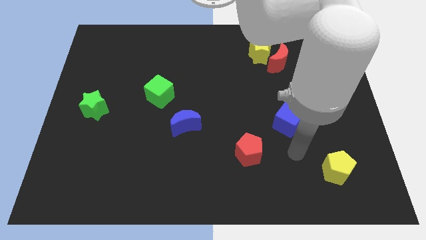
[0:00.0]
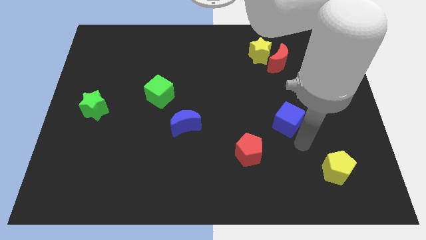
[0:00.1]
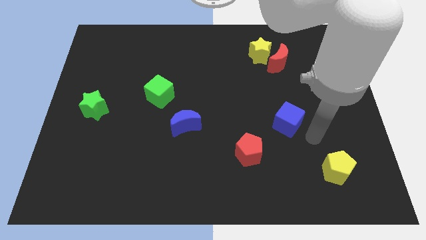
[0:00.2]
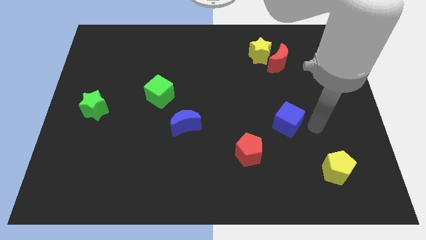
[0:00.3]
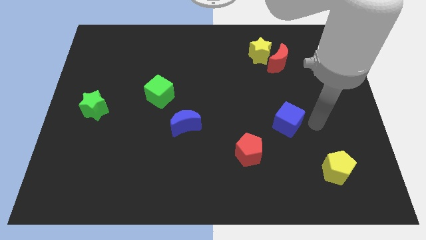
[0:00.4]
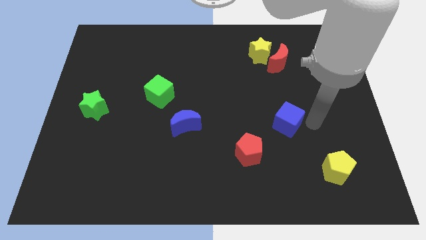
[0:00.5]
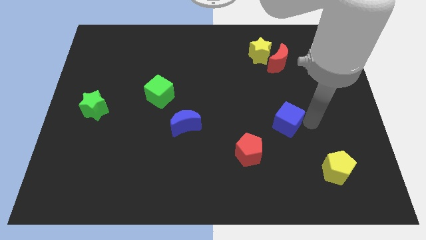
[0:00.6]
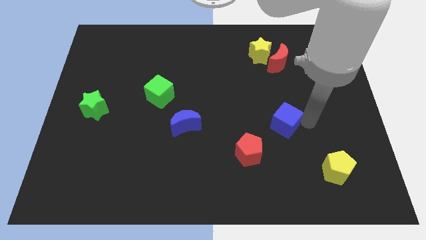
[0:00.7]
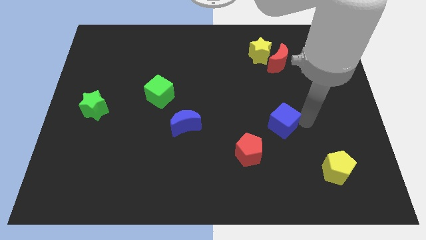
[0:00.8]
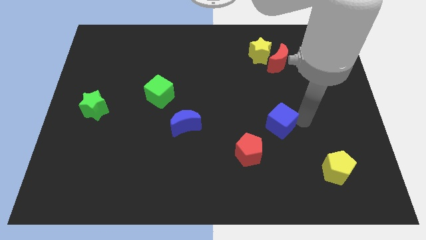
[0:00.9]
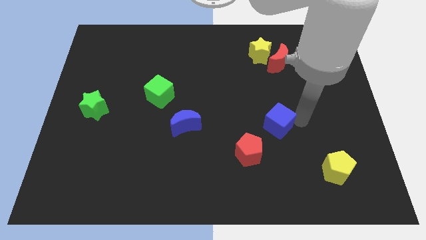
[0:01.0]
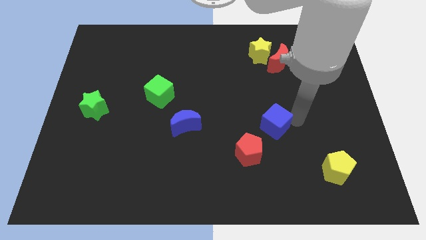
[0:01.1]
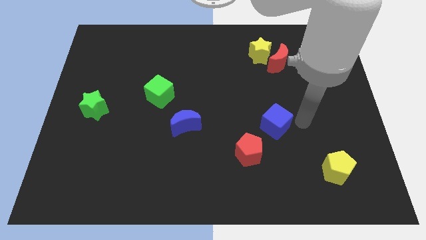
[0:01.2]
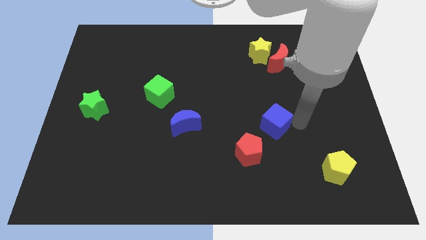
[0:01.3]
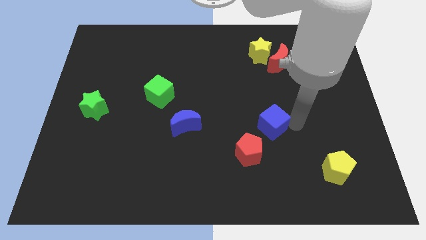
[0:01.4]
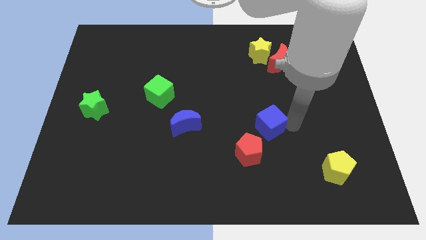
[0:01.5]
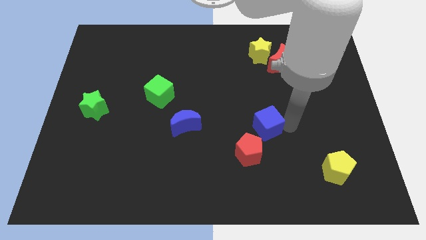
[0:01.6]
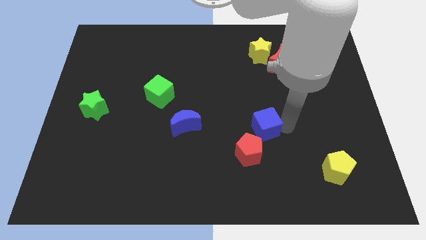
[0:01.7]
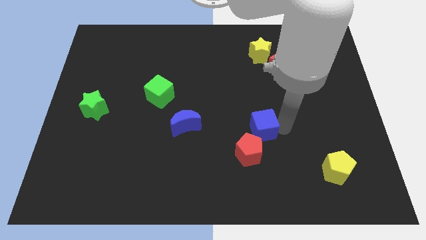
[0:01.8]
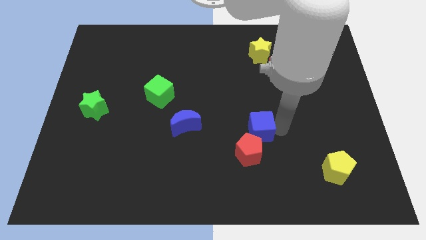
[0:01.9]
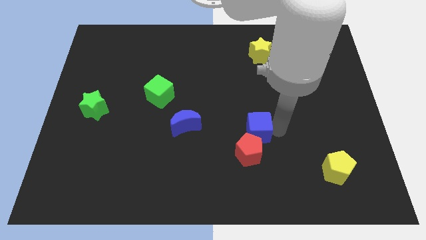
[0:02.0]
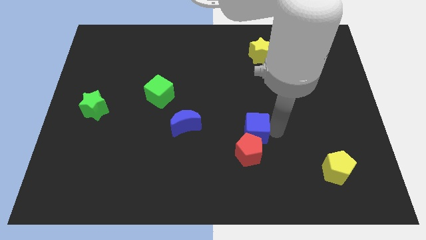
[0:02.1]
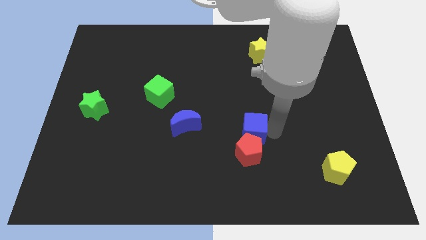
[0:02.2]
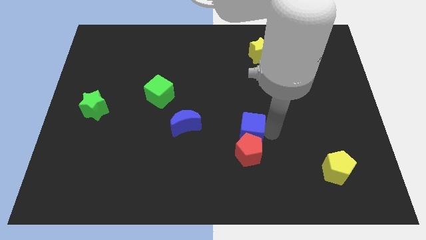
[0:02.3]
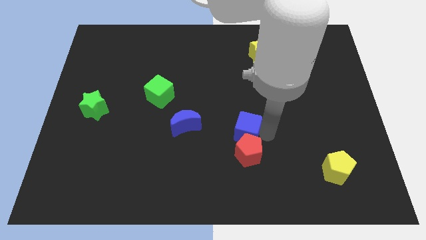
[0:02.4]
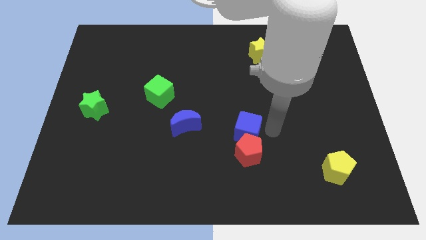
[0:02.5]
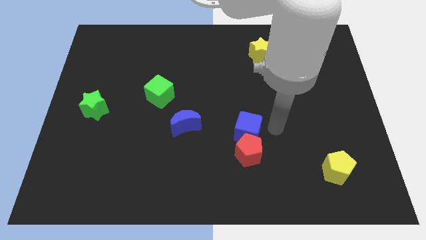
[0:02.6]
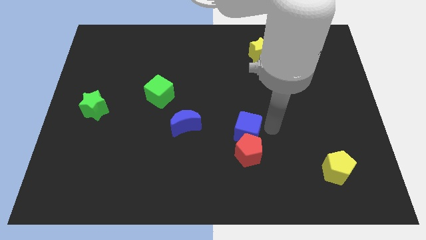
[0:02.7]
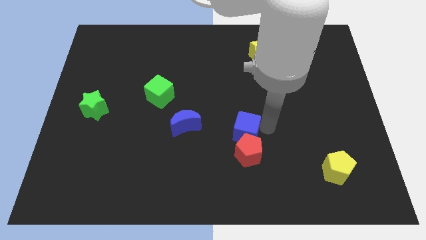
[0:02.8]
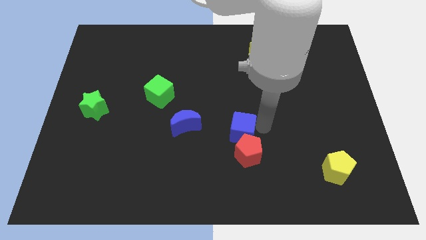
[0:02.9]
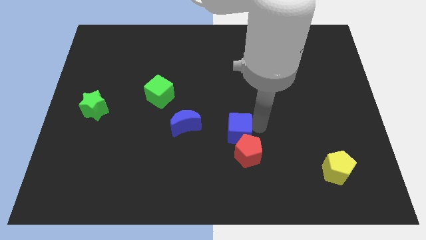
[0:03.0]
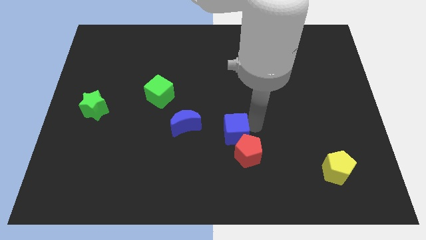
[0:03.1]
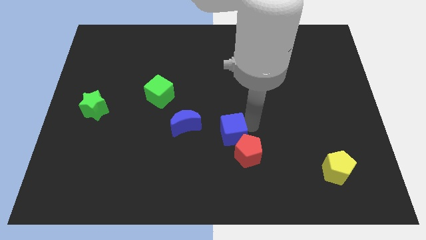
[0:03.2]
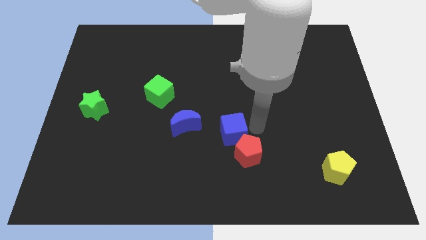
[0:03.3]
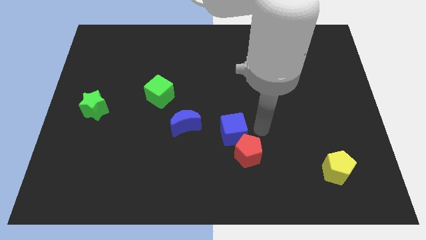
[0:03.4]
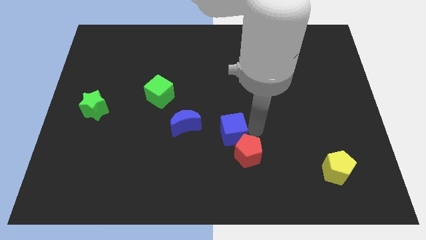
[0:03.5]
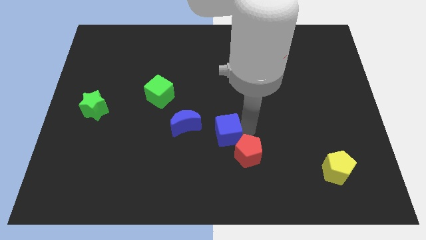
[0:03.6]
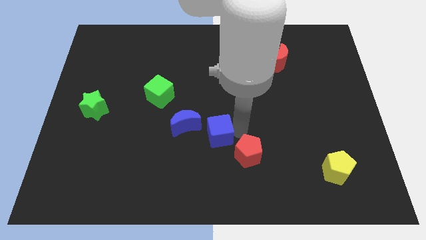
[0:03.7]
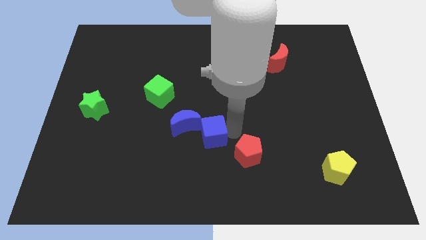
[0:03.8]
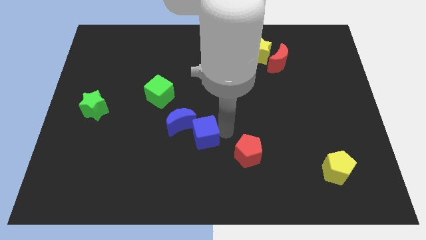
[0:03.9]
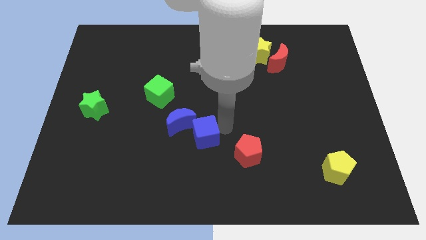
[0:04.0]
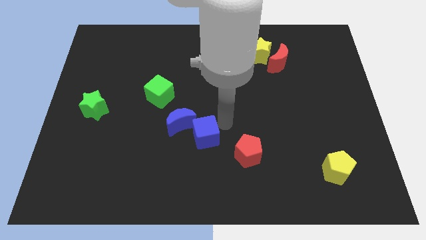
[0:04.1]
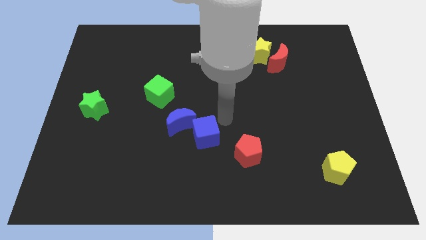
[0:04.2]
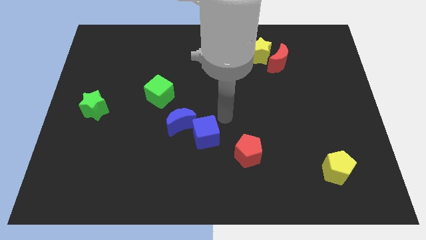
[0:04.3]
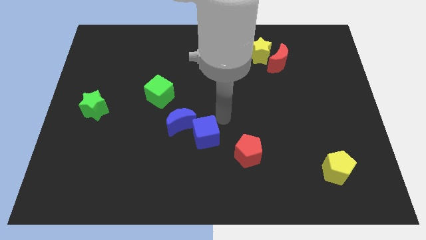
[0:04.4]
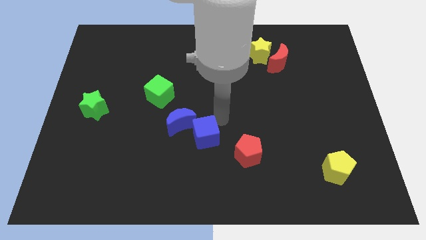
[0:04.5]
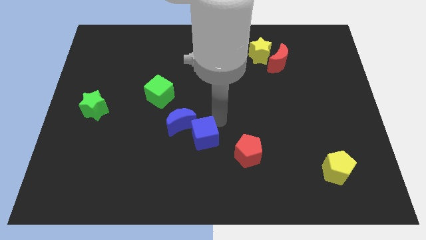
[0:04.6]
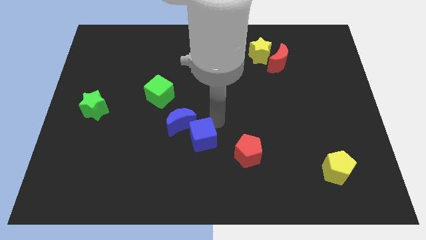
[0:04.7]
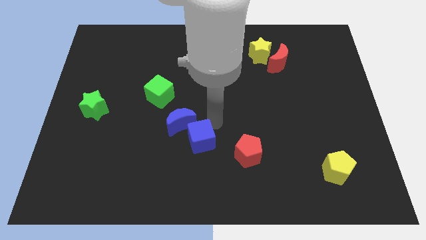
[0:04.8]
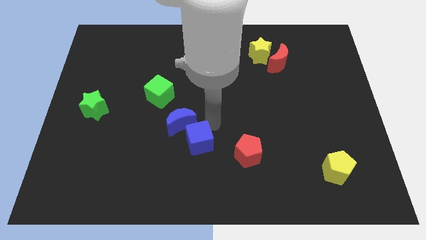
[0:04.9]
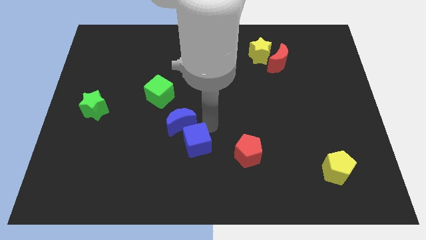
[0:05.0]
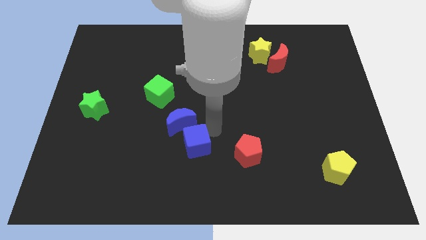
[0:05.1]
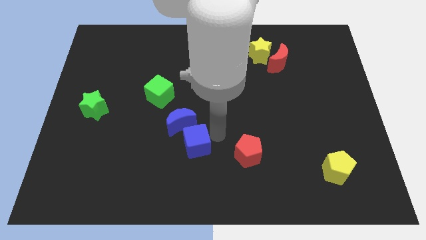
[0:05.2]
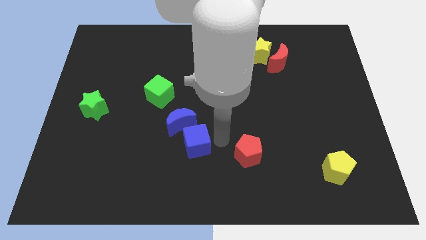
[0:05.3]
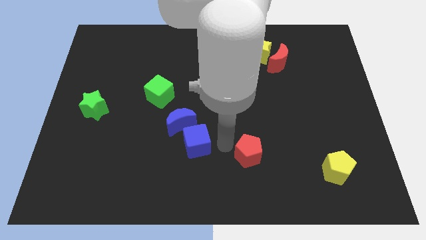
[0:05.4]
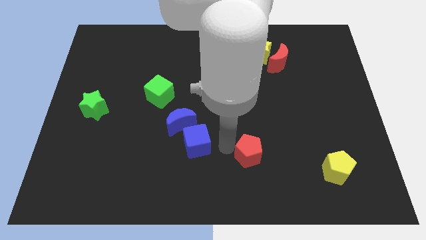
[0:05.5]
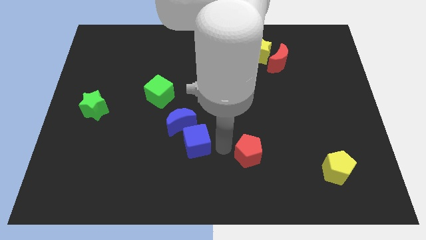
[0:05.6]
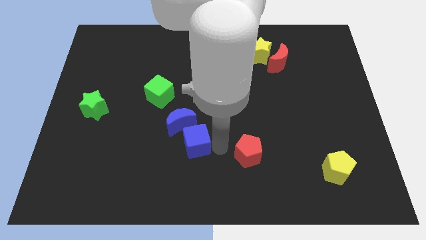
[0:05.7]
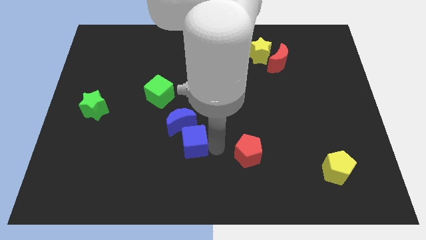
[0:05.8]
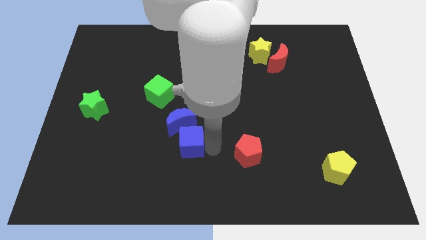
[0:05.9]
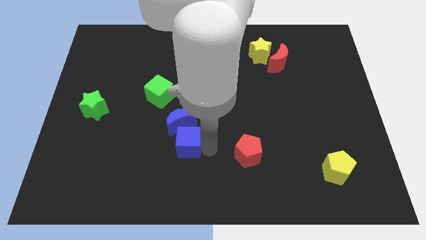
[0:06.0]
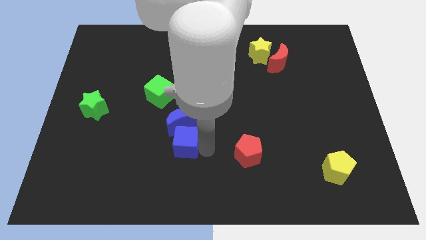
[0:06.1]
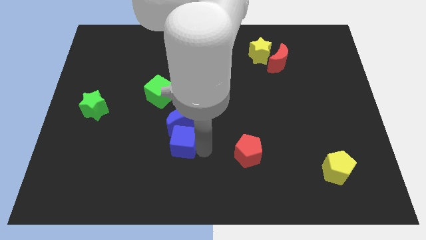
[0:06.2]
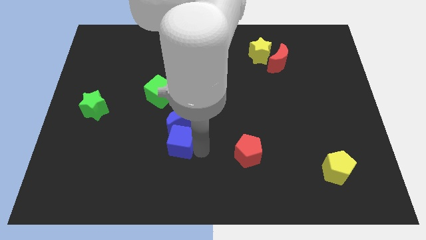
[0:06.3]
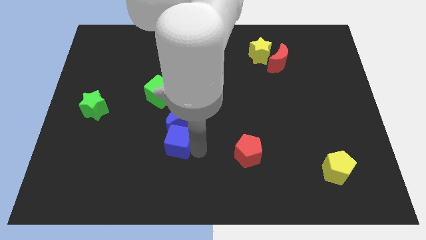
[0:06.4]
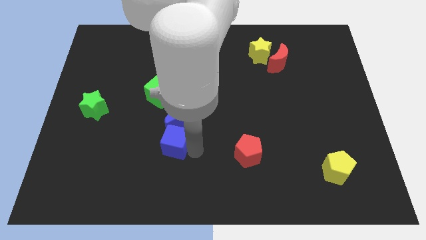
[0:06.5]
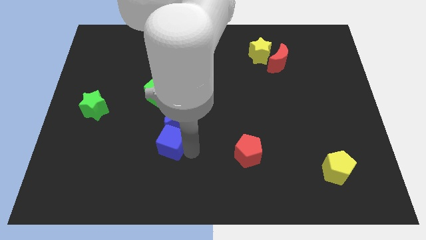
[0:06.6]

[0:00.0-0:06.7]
slide the blue cube below the green cube
